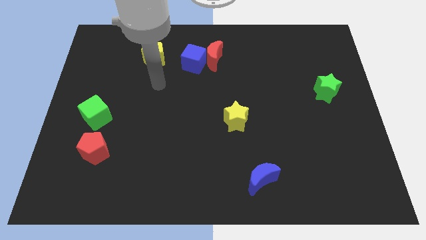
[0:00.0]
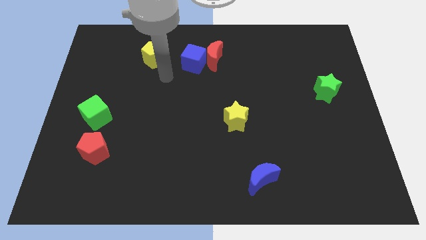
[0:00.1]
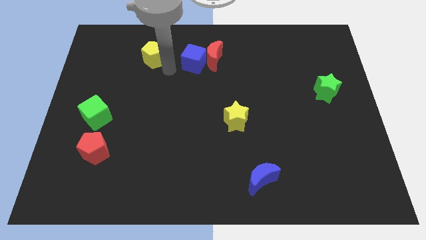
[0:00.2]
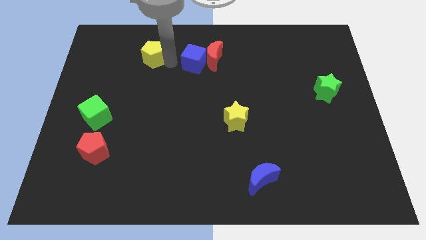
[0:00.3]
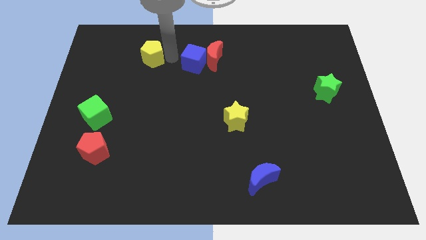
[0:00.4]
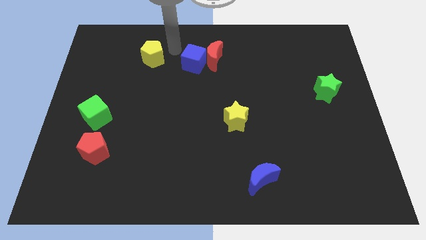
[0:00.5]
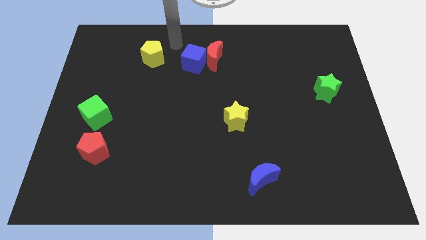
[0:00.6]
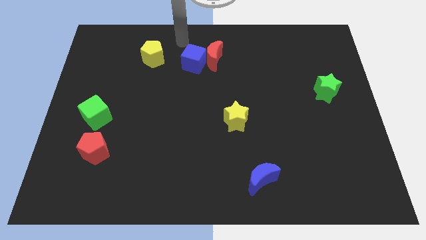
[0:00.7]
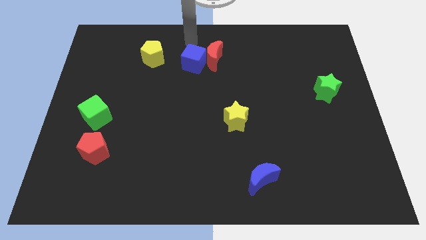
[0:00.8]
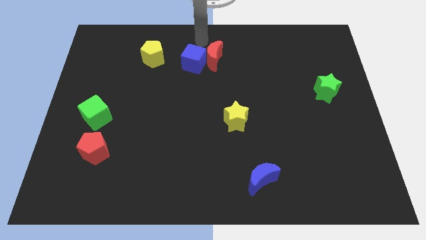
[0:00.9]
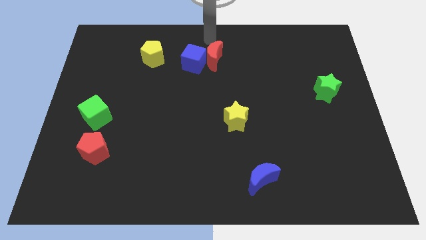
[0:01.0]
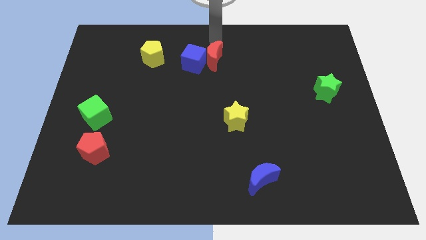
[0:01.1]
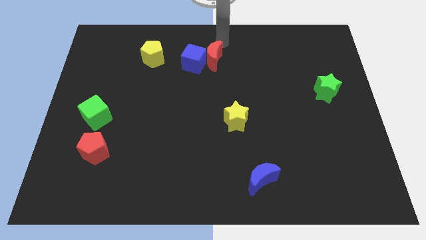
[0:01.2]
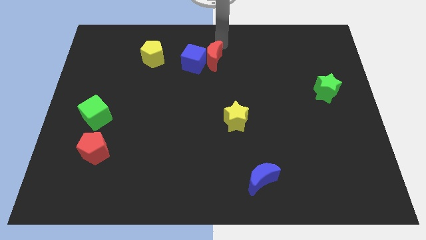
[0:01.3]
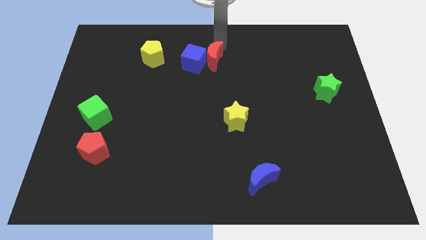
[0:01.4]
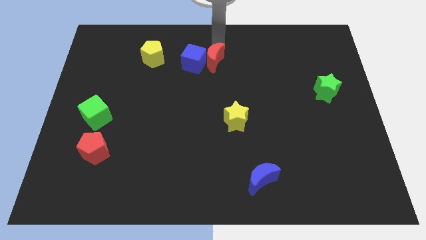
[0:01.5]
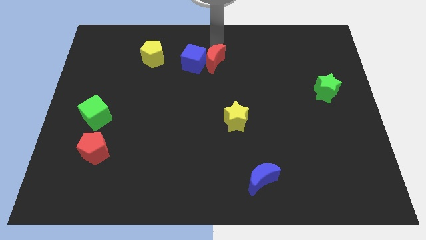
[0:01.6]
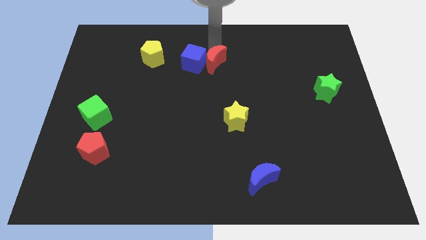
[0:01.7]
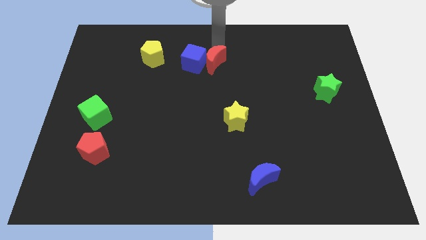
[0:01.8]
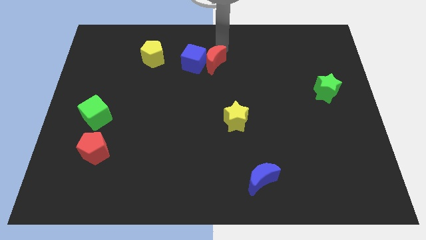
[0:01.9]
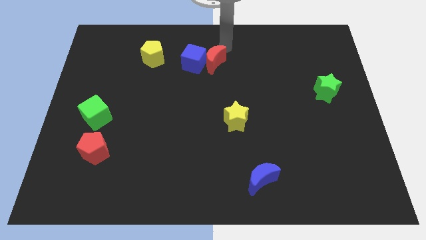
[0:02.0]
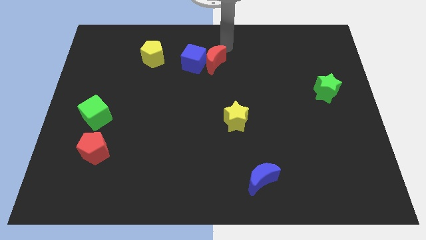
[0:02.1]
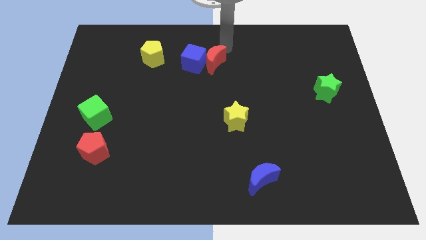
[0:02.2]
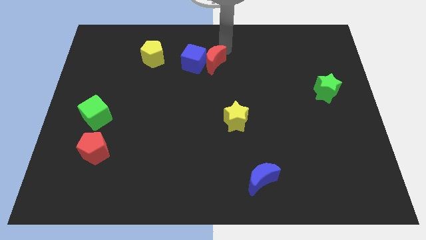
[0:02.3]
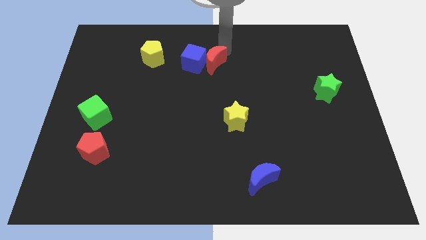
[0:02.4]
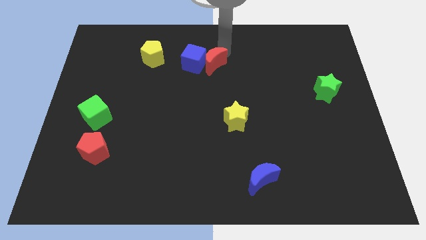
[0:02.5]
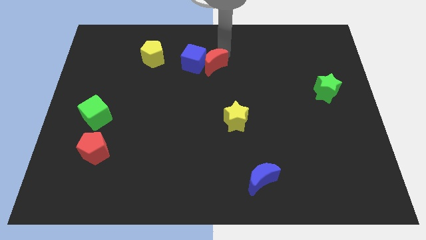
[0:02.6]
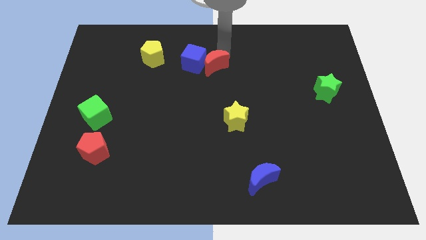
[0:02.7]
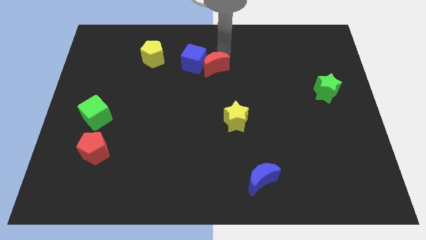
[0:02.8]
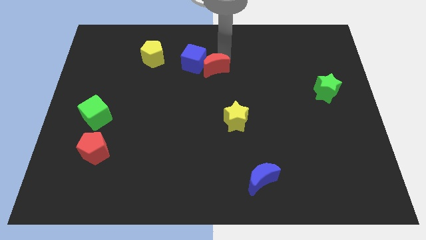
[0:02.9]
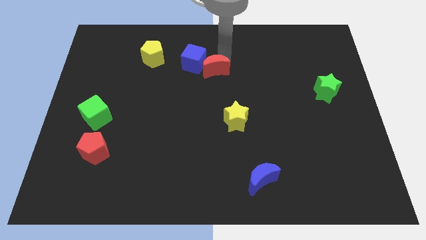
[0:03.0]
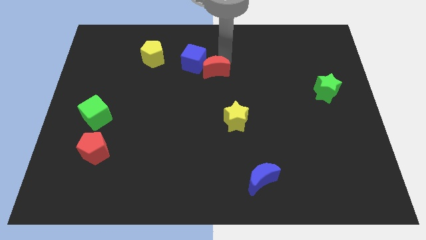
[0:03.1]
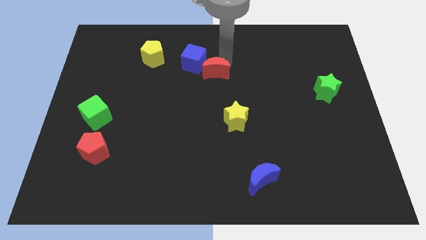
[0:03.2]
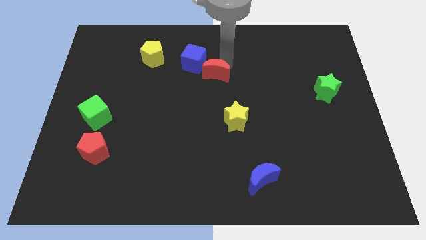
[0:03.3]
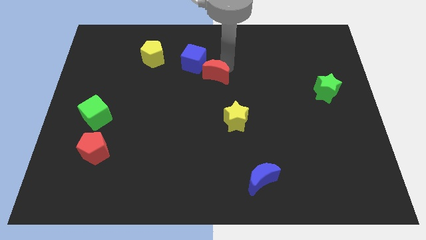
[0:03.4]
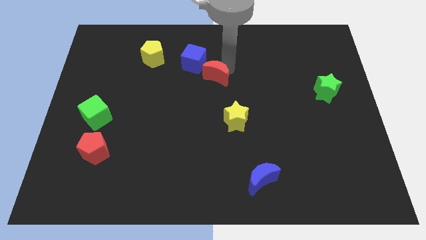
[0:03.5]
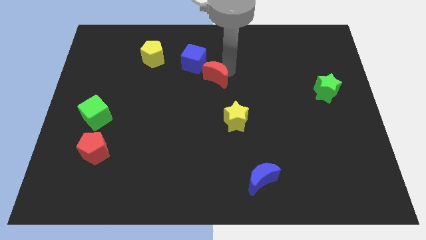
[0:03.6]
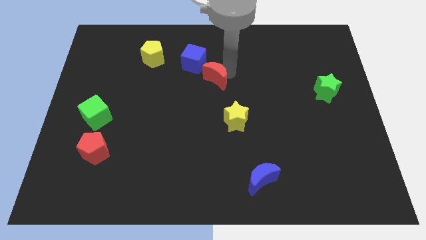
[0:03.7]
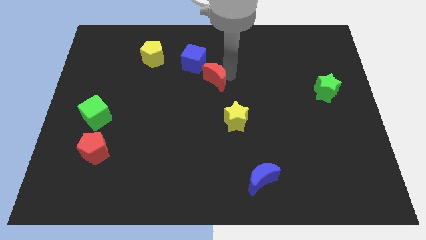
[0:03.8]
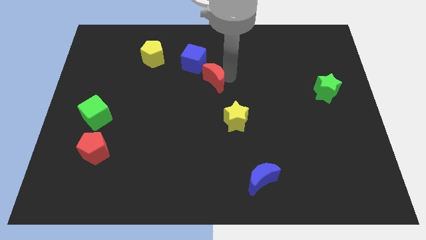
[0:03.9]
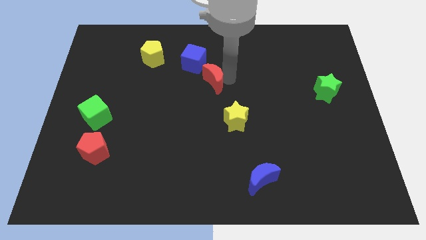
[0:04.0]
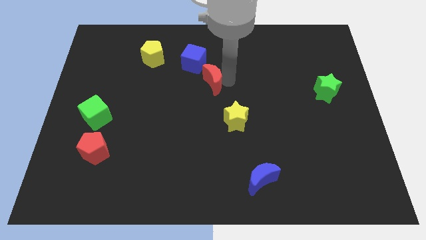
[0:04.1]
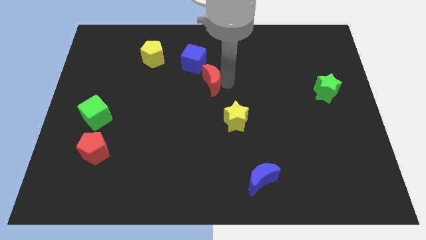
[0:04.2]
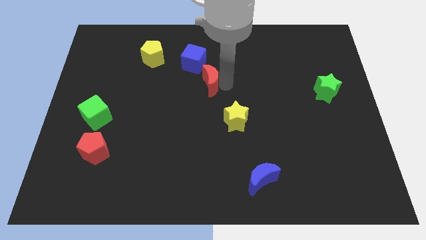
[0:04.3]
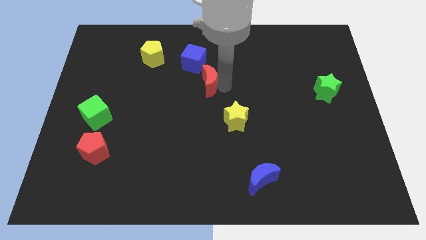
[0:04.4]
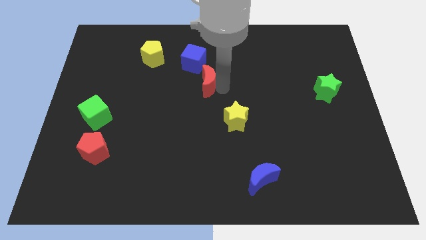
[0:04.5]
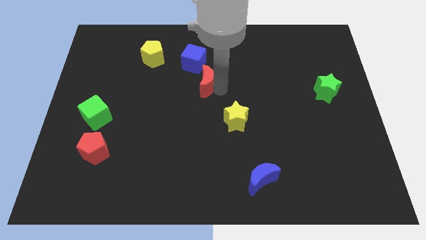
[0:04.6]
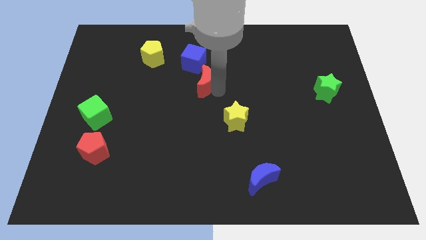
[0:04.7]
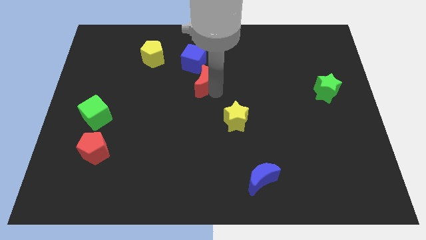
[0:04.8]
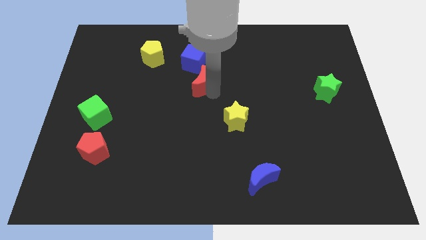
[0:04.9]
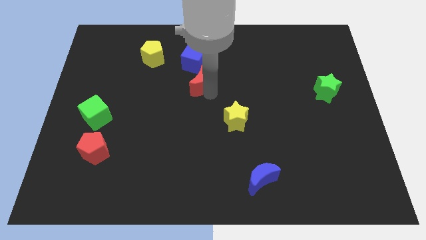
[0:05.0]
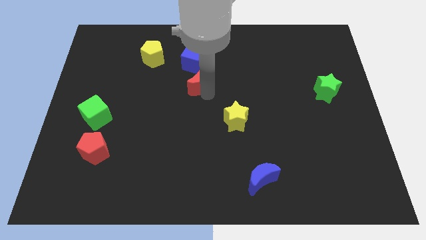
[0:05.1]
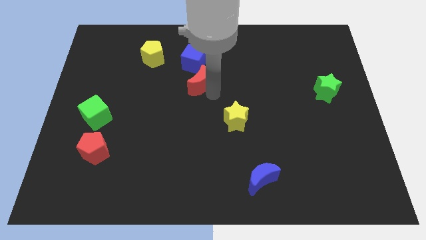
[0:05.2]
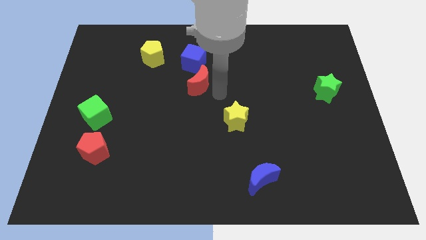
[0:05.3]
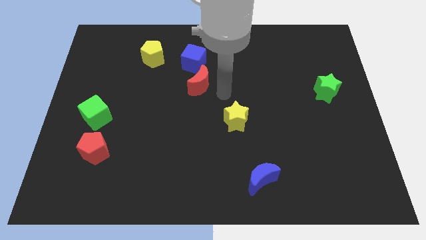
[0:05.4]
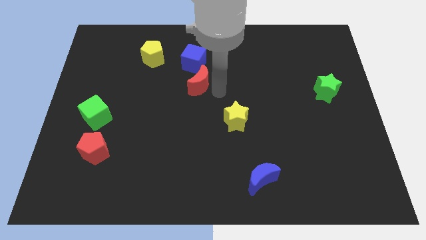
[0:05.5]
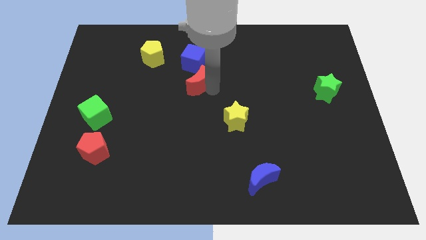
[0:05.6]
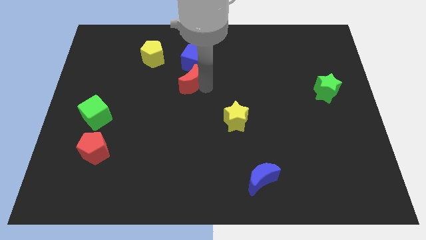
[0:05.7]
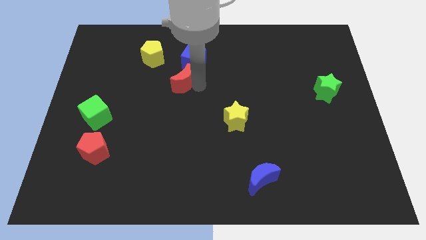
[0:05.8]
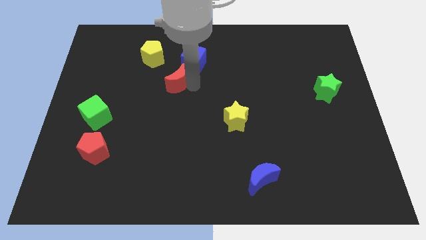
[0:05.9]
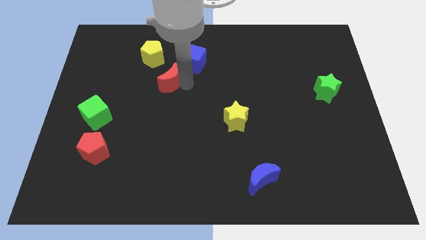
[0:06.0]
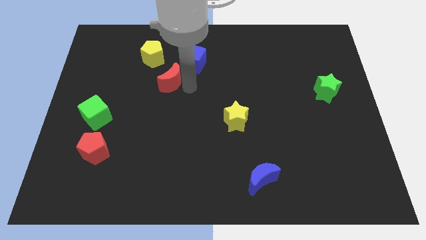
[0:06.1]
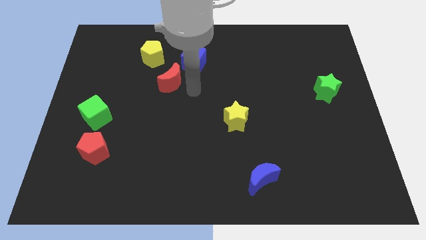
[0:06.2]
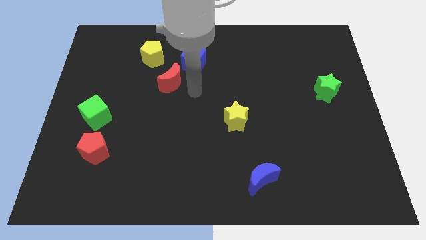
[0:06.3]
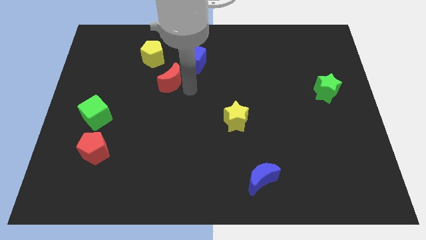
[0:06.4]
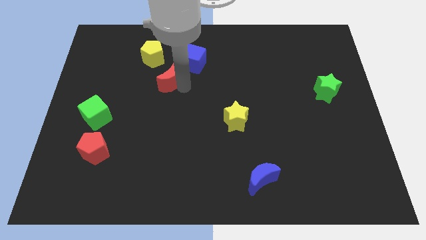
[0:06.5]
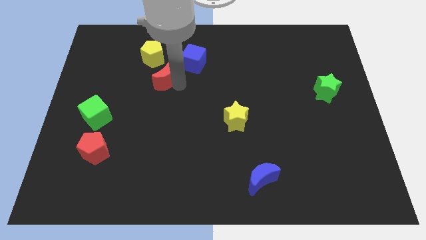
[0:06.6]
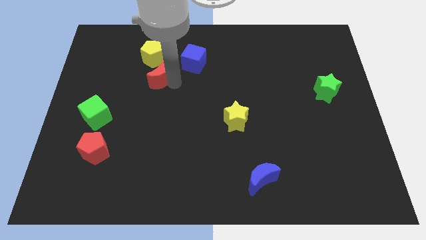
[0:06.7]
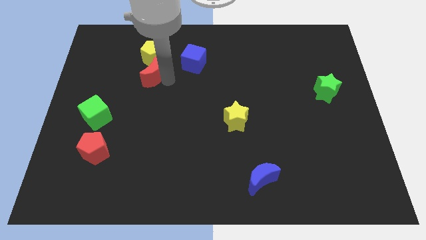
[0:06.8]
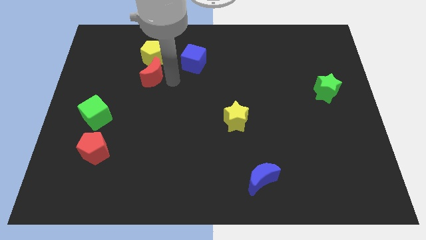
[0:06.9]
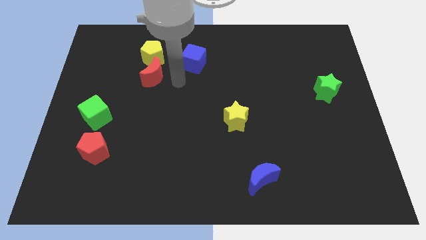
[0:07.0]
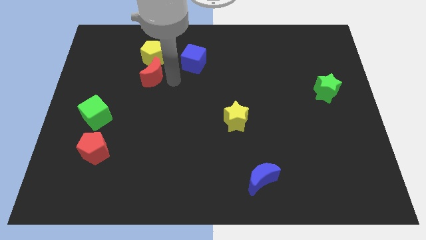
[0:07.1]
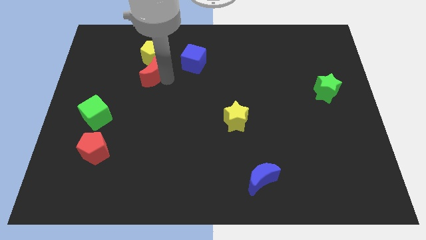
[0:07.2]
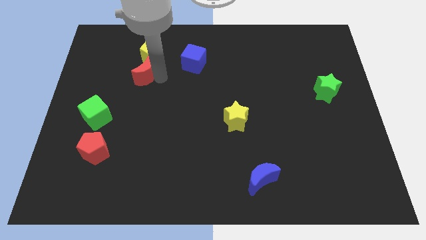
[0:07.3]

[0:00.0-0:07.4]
put the red moon to the bottom left of the yellow pentagon
